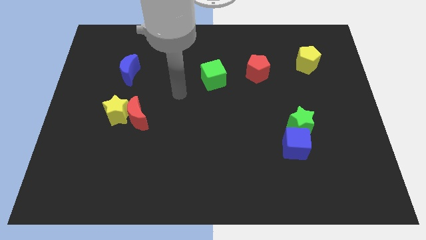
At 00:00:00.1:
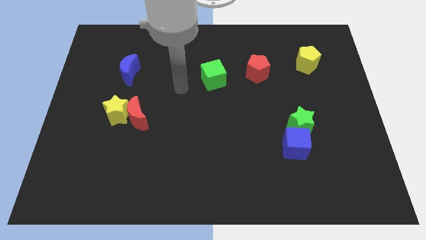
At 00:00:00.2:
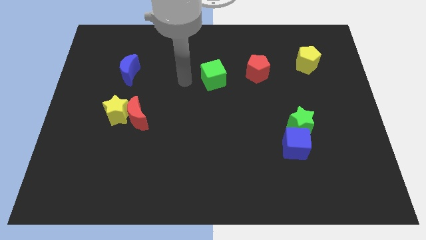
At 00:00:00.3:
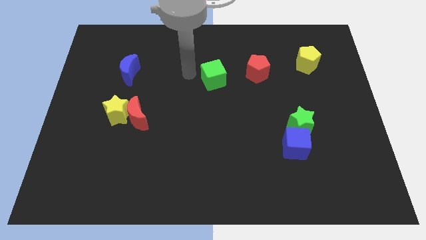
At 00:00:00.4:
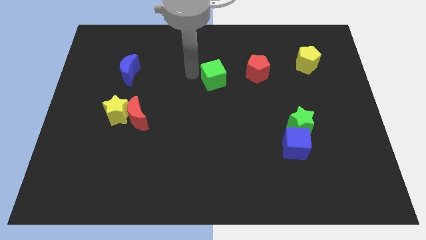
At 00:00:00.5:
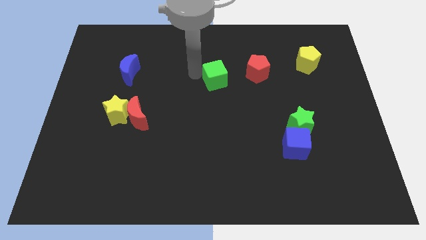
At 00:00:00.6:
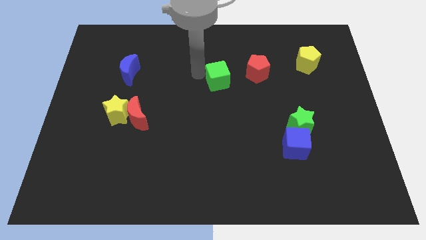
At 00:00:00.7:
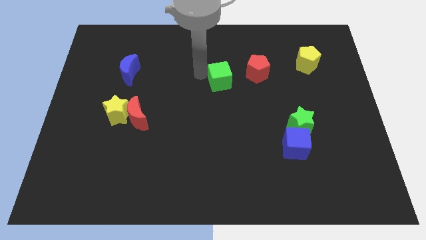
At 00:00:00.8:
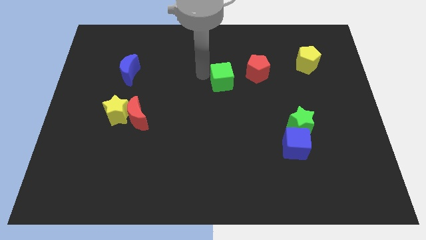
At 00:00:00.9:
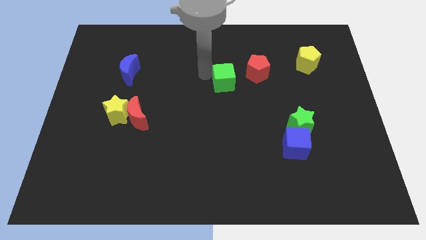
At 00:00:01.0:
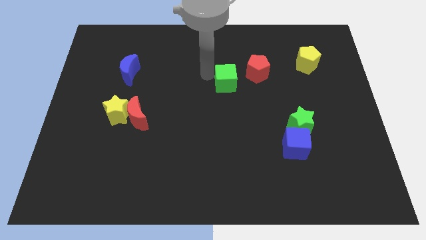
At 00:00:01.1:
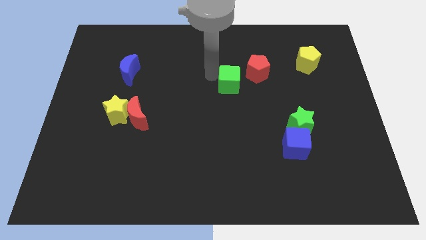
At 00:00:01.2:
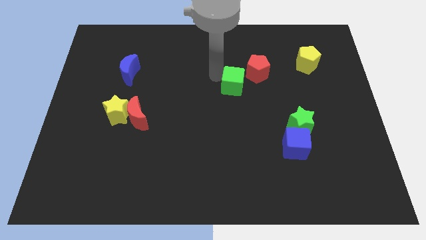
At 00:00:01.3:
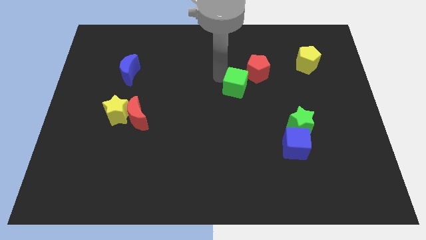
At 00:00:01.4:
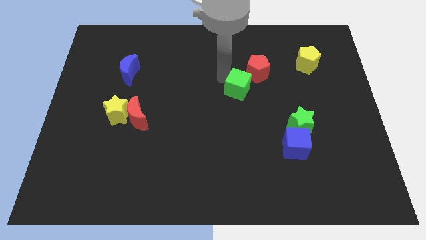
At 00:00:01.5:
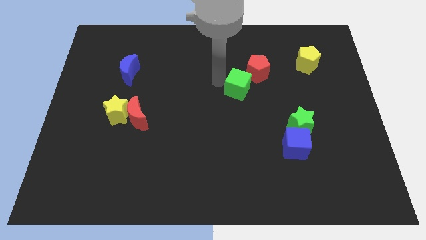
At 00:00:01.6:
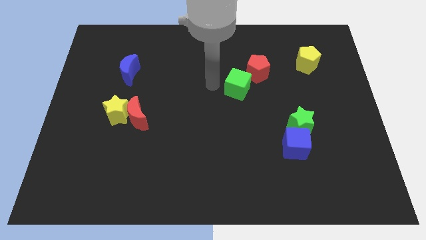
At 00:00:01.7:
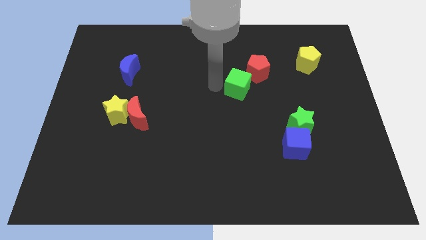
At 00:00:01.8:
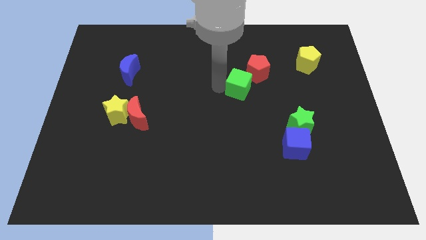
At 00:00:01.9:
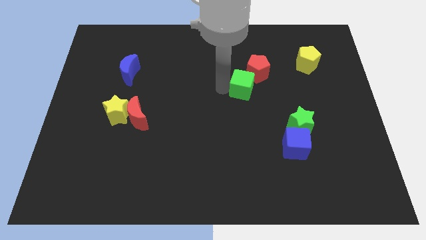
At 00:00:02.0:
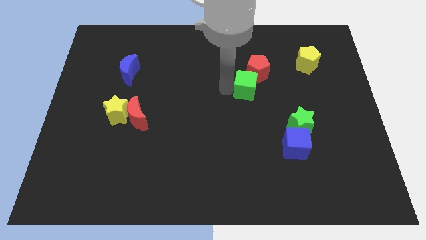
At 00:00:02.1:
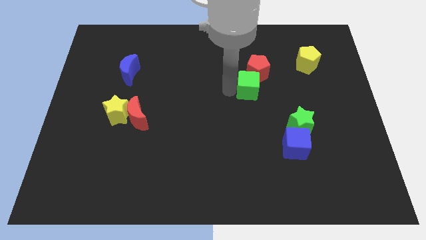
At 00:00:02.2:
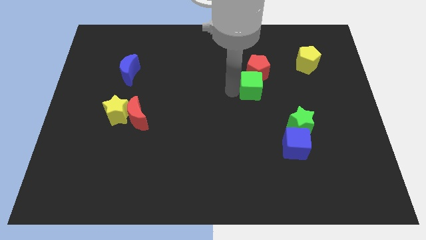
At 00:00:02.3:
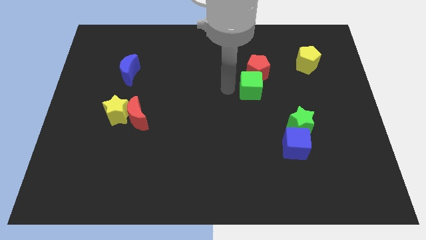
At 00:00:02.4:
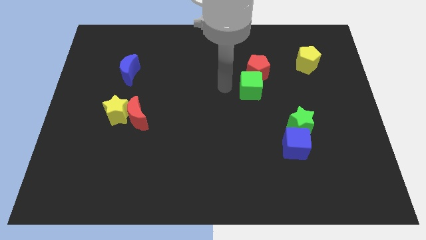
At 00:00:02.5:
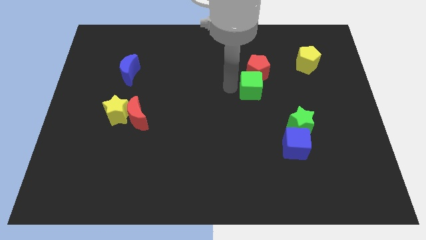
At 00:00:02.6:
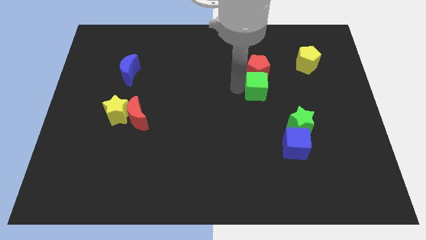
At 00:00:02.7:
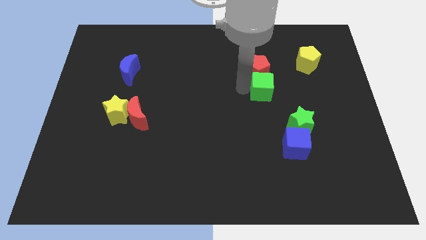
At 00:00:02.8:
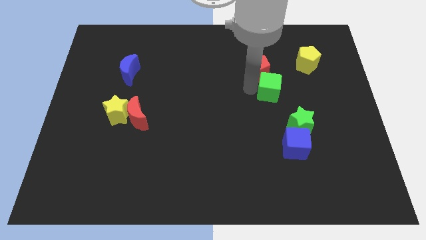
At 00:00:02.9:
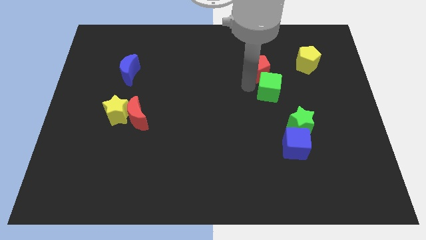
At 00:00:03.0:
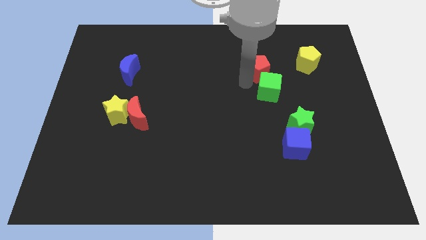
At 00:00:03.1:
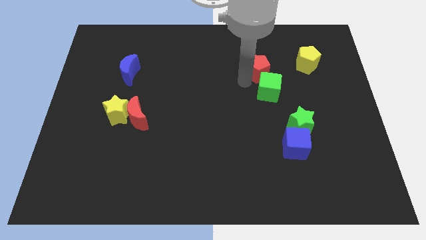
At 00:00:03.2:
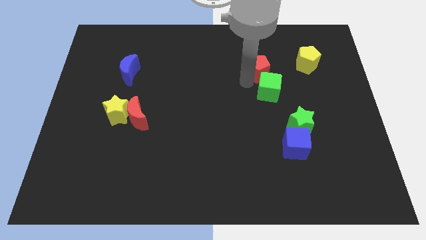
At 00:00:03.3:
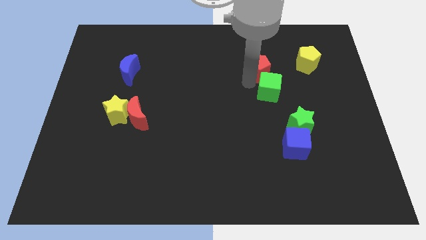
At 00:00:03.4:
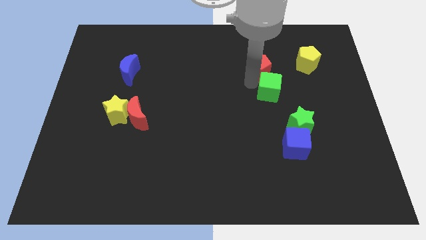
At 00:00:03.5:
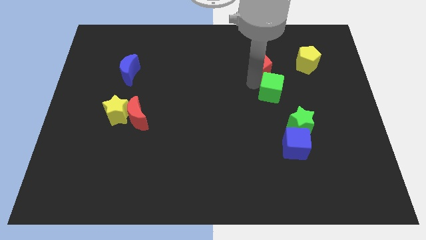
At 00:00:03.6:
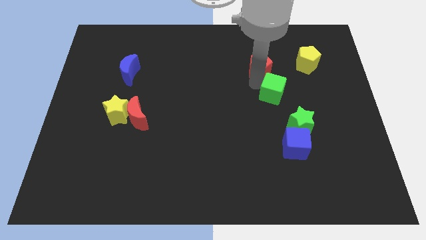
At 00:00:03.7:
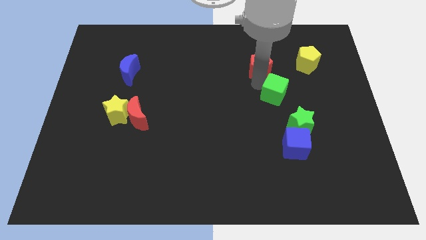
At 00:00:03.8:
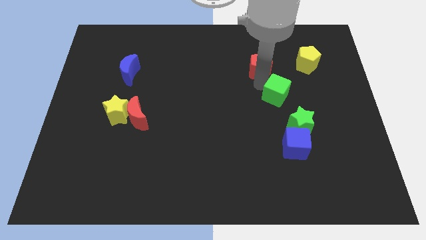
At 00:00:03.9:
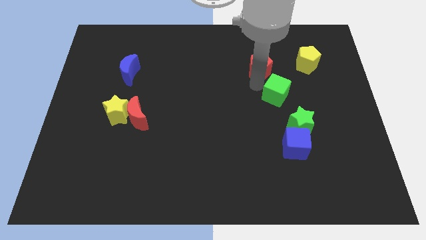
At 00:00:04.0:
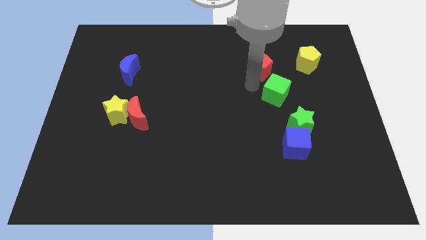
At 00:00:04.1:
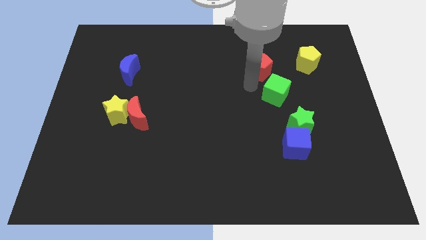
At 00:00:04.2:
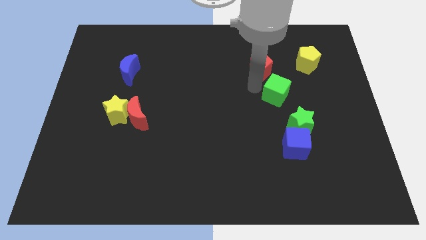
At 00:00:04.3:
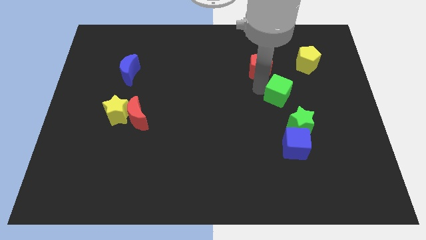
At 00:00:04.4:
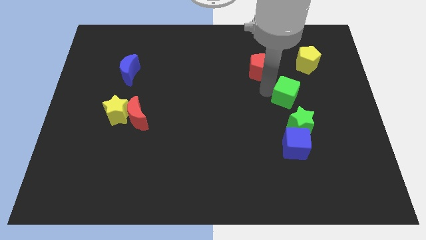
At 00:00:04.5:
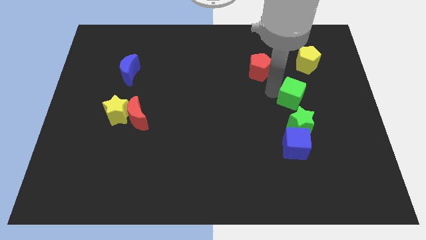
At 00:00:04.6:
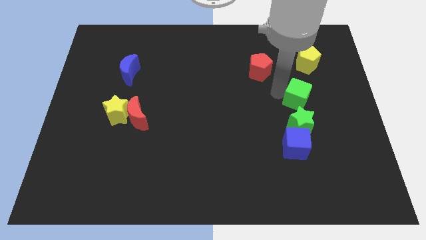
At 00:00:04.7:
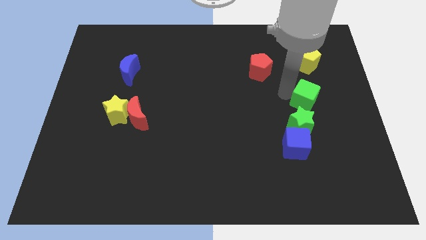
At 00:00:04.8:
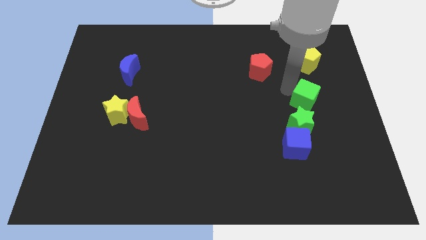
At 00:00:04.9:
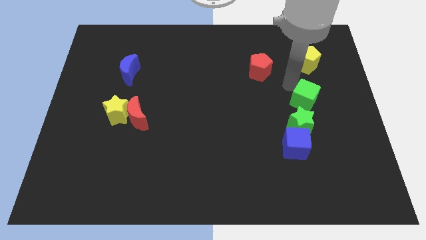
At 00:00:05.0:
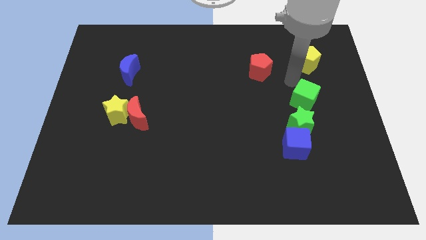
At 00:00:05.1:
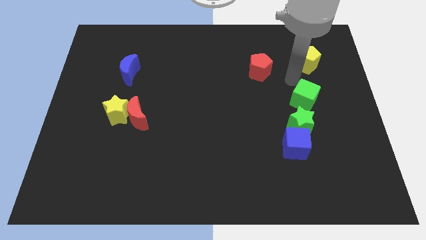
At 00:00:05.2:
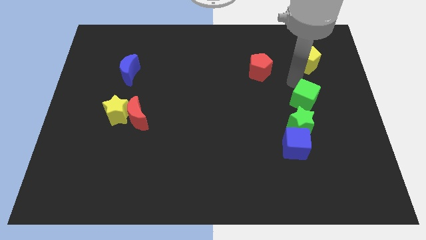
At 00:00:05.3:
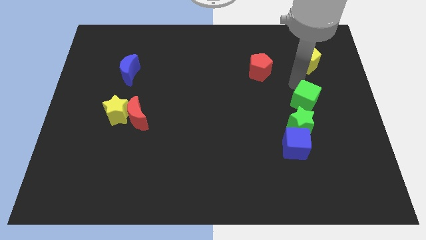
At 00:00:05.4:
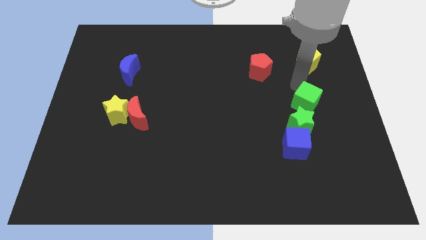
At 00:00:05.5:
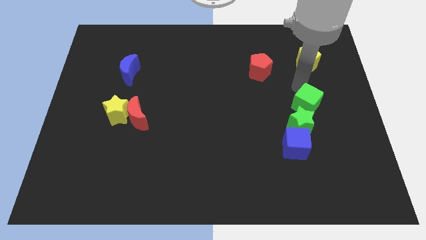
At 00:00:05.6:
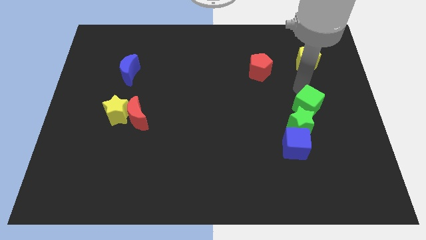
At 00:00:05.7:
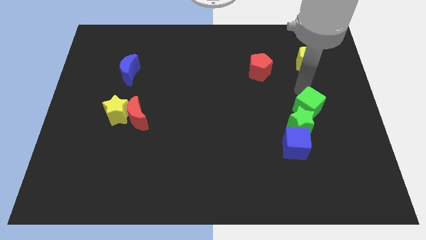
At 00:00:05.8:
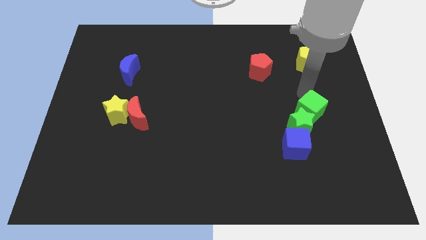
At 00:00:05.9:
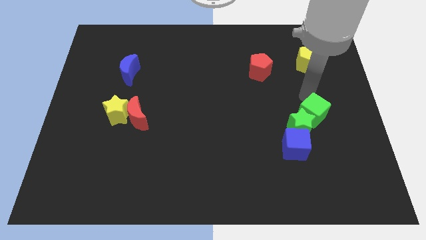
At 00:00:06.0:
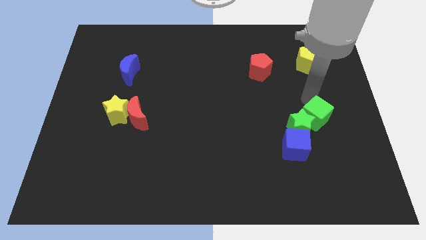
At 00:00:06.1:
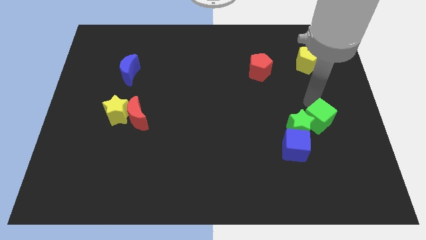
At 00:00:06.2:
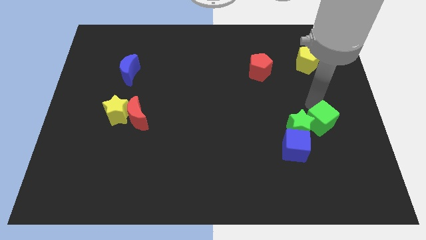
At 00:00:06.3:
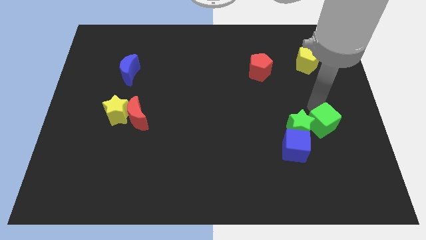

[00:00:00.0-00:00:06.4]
push the green cube to the bottom right of the green star

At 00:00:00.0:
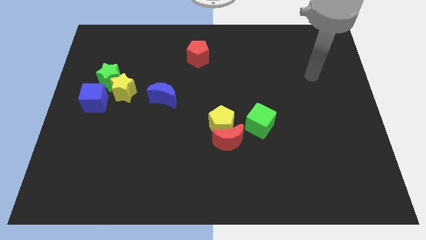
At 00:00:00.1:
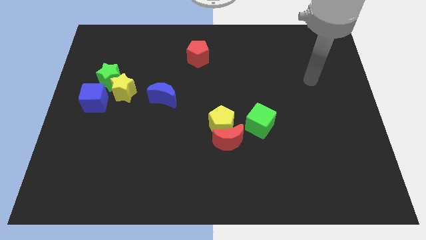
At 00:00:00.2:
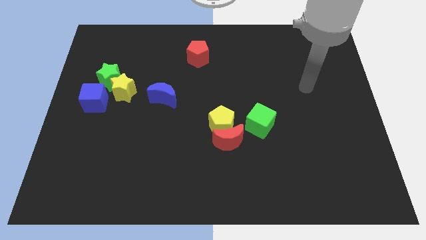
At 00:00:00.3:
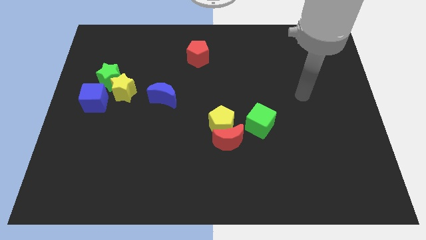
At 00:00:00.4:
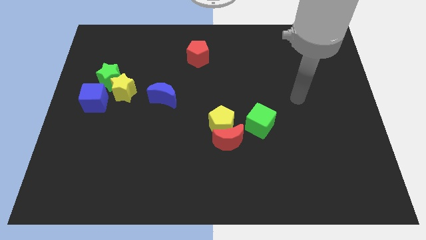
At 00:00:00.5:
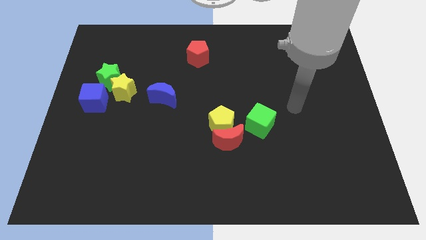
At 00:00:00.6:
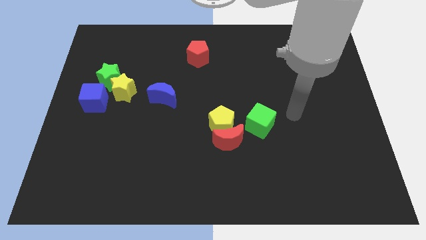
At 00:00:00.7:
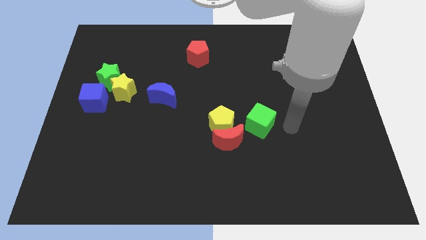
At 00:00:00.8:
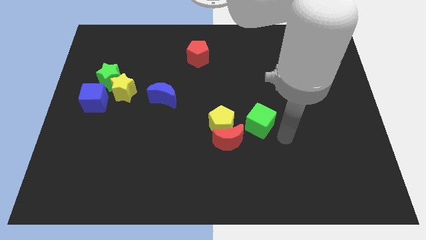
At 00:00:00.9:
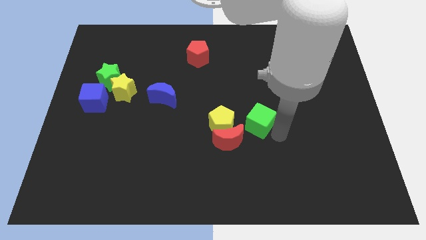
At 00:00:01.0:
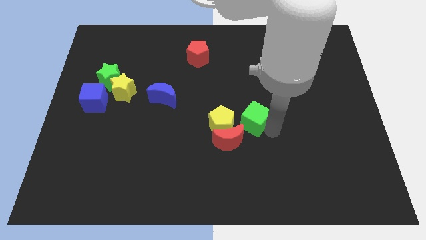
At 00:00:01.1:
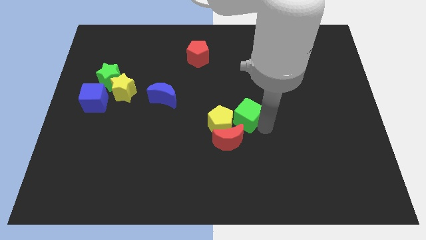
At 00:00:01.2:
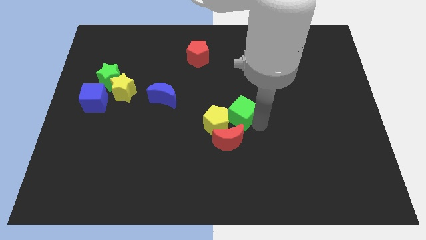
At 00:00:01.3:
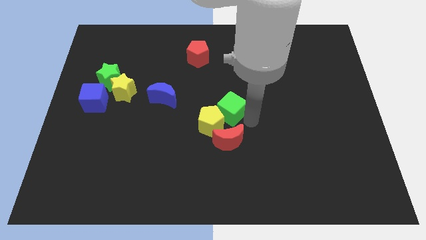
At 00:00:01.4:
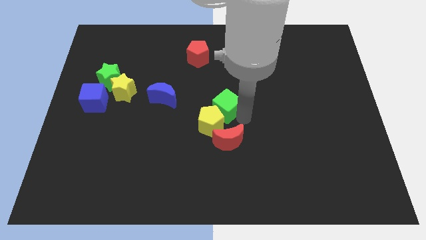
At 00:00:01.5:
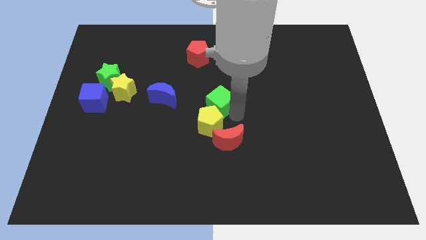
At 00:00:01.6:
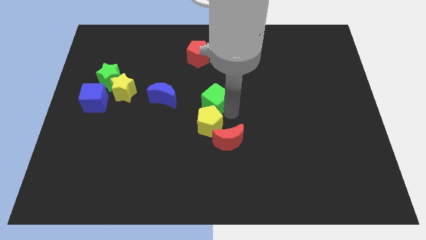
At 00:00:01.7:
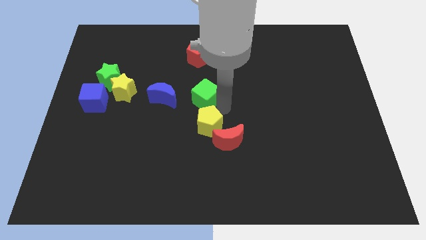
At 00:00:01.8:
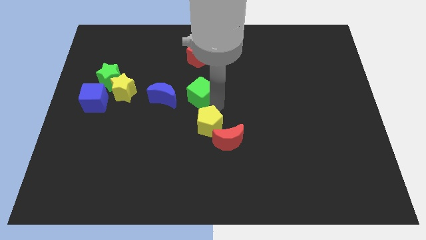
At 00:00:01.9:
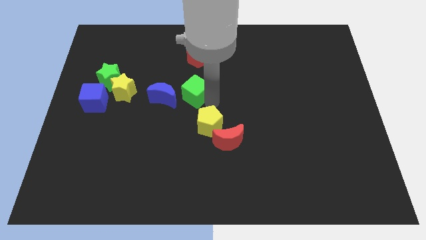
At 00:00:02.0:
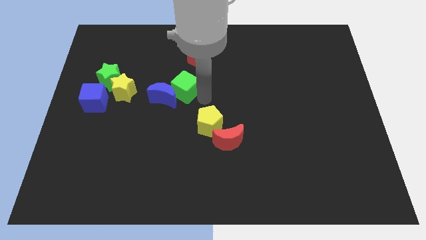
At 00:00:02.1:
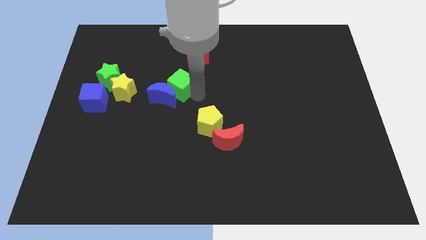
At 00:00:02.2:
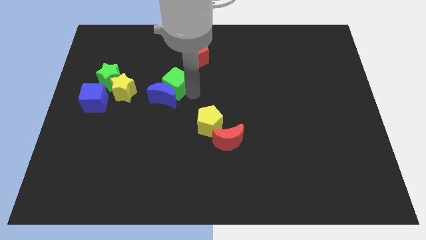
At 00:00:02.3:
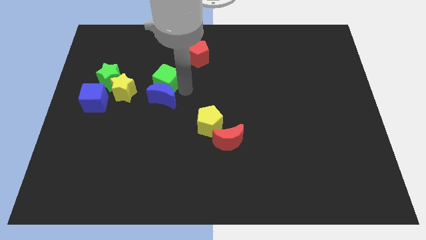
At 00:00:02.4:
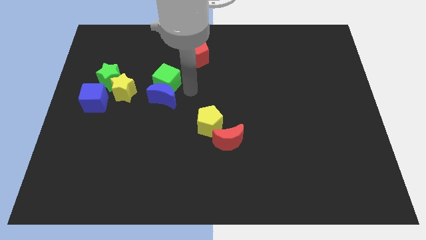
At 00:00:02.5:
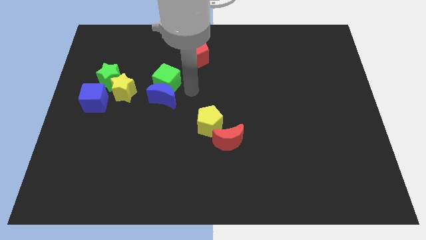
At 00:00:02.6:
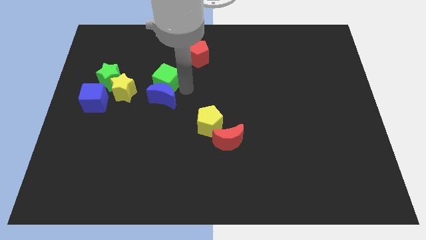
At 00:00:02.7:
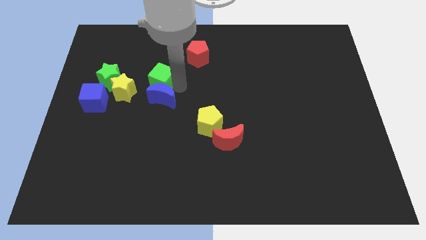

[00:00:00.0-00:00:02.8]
push the green cube to the top right side of the yellow star
